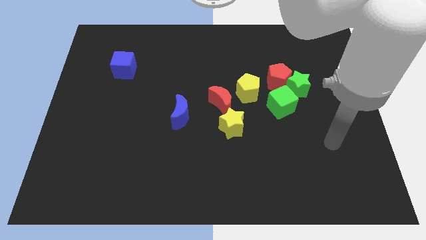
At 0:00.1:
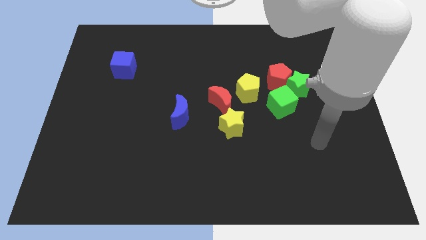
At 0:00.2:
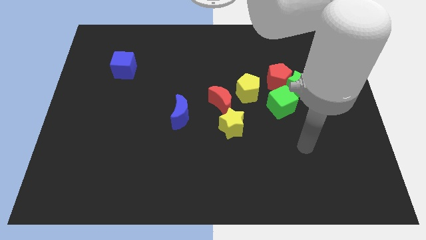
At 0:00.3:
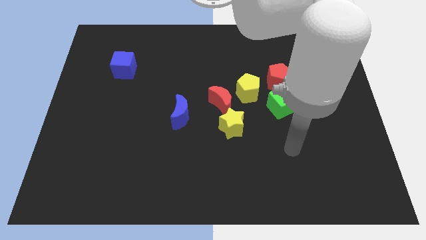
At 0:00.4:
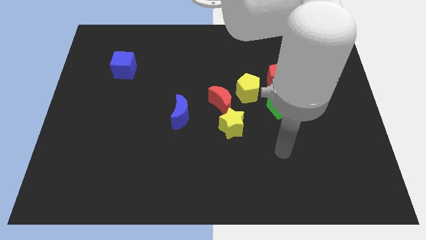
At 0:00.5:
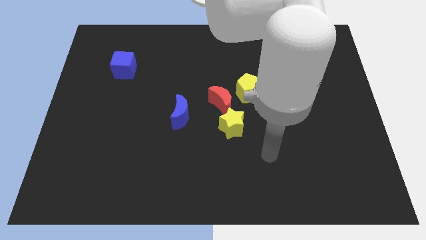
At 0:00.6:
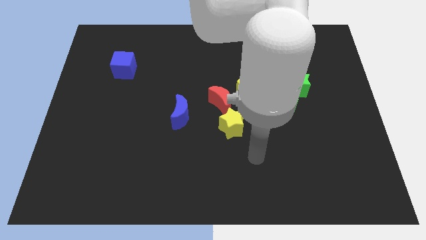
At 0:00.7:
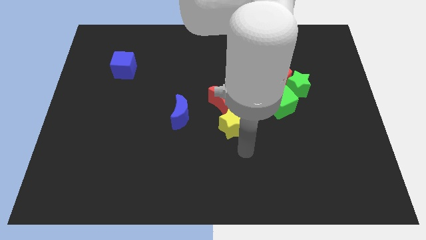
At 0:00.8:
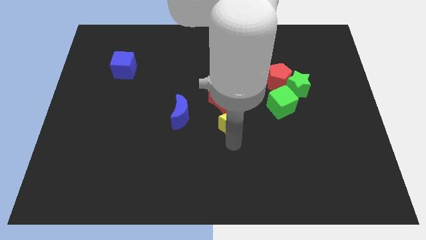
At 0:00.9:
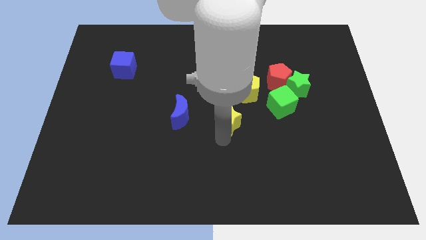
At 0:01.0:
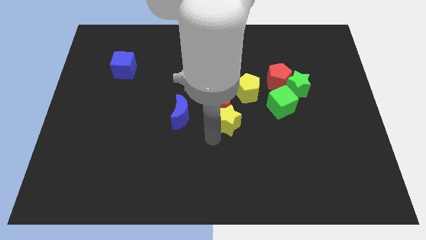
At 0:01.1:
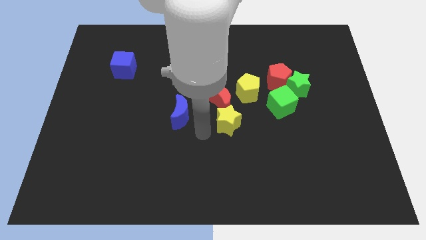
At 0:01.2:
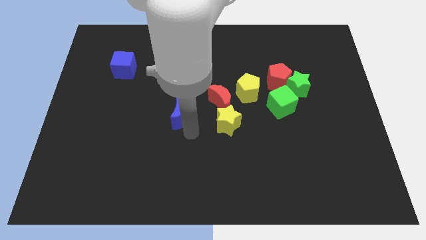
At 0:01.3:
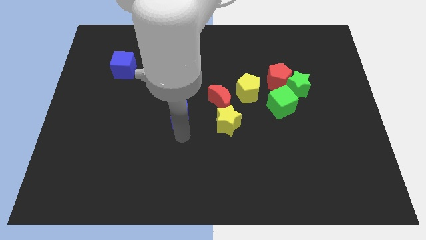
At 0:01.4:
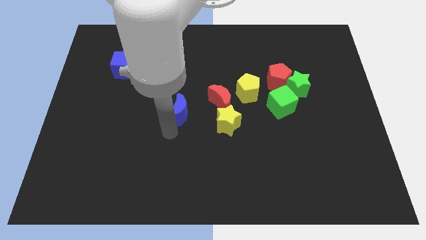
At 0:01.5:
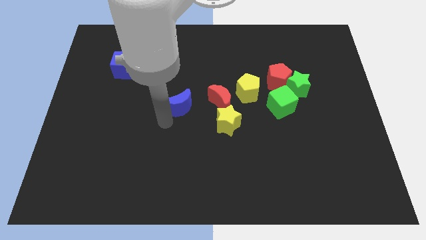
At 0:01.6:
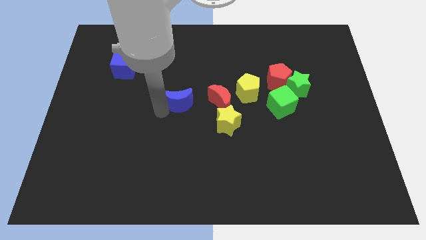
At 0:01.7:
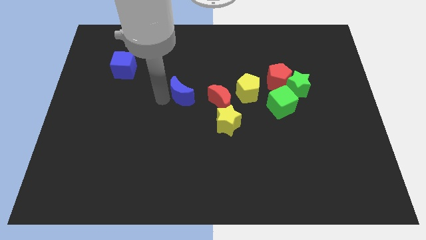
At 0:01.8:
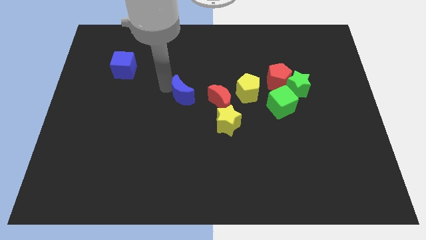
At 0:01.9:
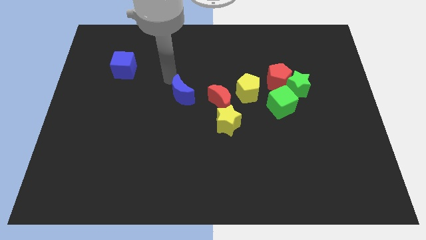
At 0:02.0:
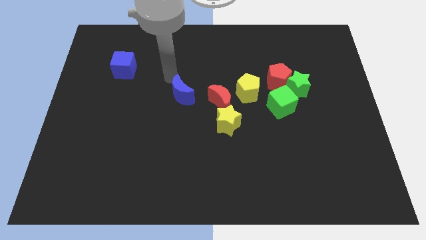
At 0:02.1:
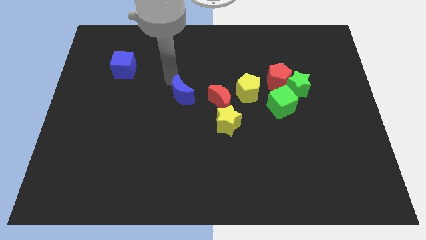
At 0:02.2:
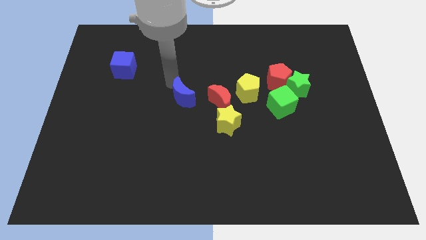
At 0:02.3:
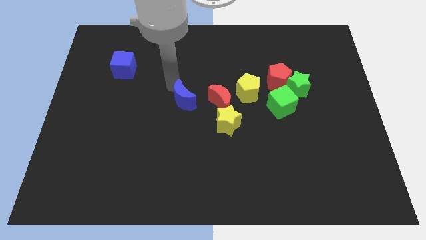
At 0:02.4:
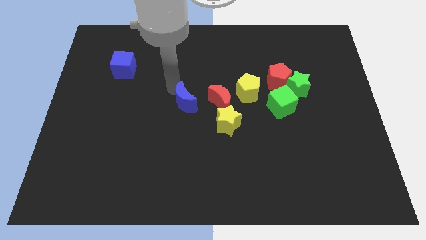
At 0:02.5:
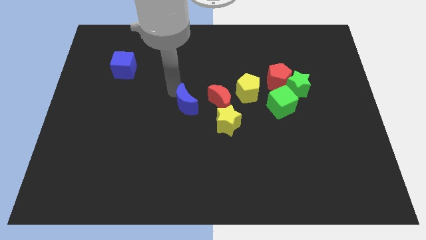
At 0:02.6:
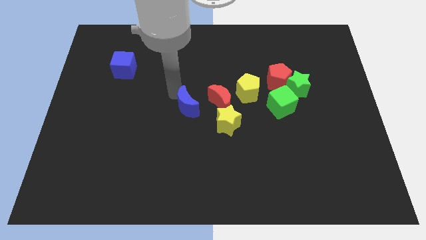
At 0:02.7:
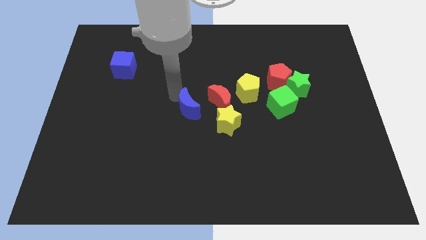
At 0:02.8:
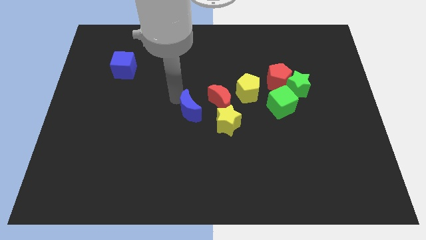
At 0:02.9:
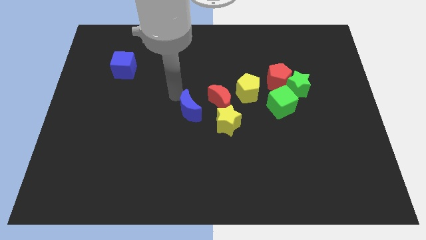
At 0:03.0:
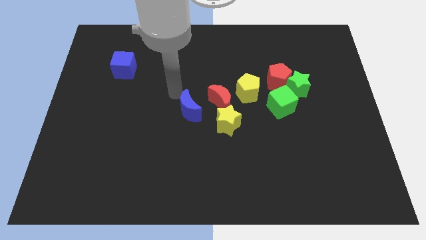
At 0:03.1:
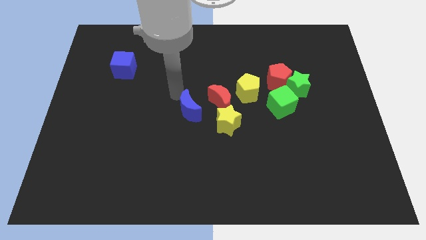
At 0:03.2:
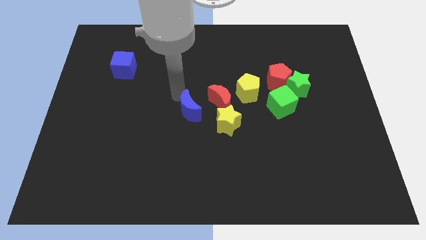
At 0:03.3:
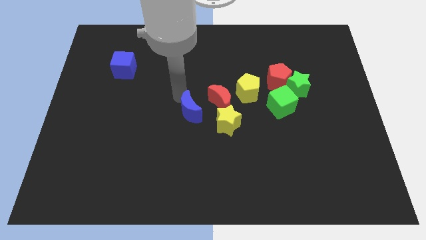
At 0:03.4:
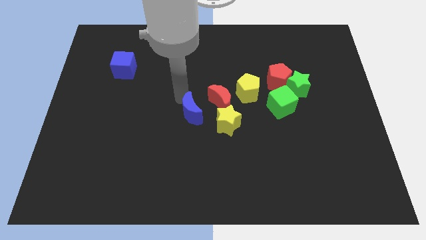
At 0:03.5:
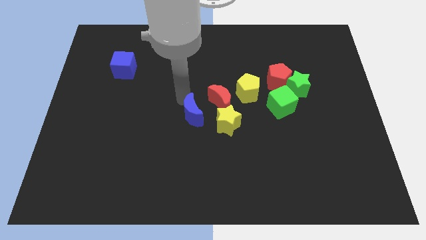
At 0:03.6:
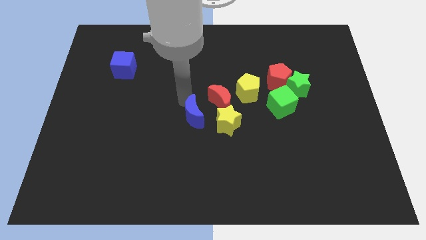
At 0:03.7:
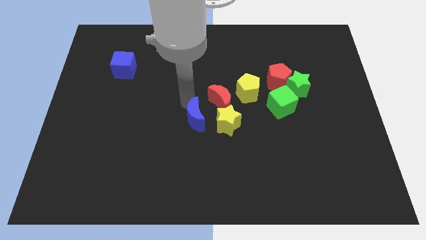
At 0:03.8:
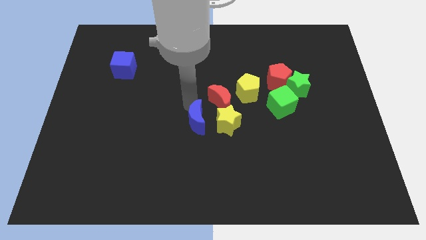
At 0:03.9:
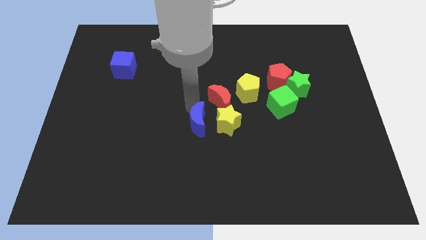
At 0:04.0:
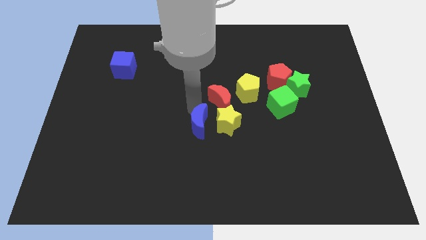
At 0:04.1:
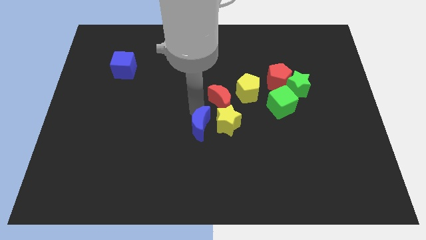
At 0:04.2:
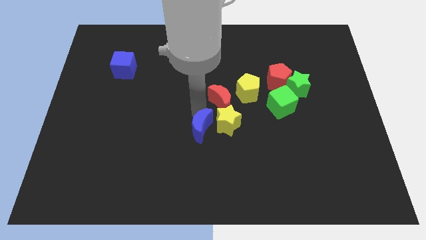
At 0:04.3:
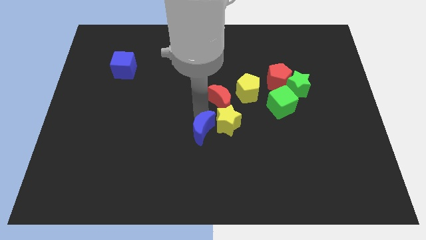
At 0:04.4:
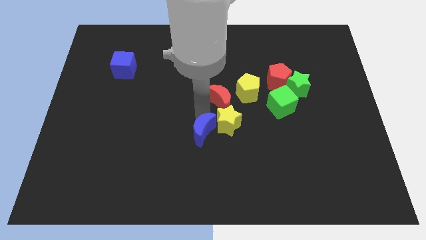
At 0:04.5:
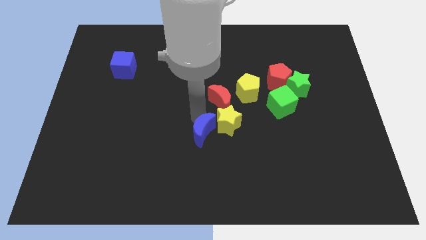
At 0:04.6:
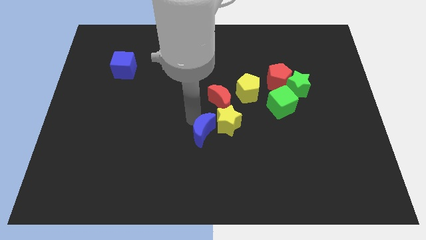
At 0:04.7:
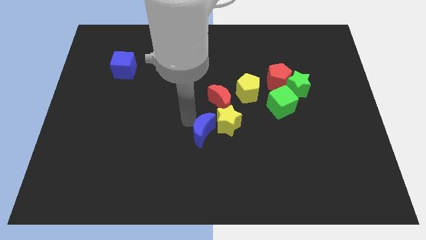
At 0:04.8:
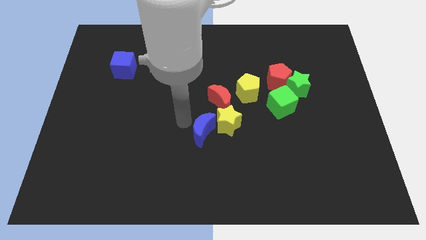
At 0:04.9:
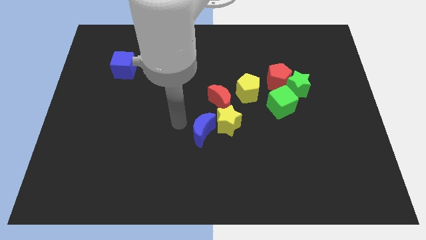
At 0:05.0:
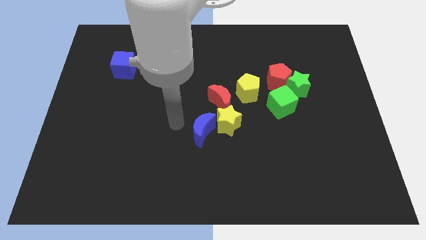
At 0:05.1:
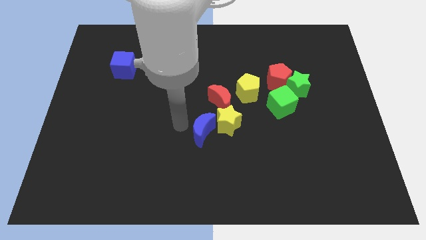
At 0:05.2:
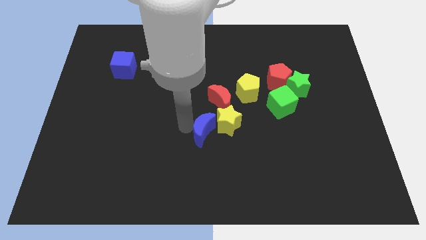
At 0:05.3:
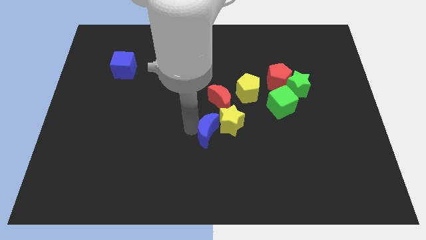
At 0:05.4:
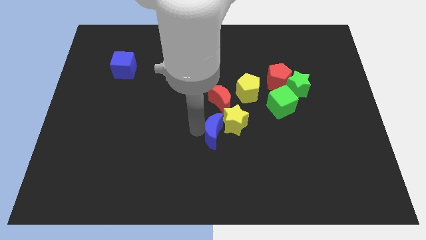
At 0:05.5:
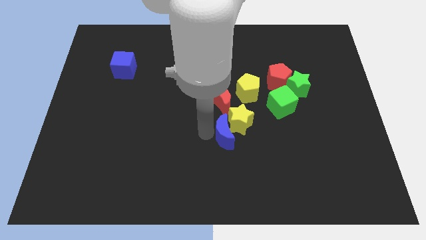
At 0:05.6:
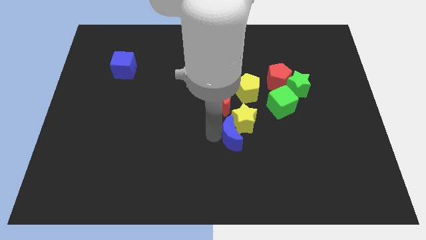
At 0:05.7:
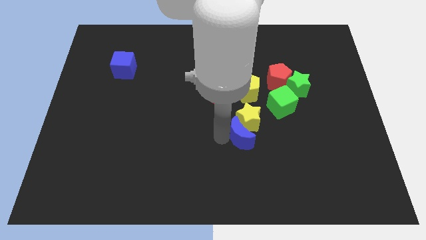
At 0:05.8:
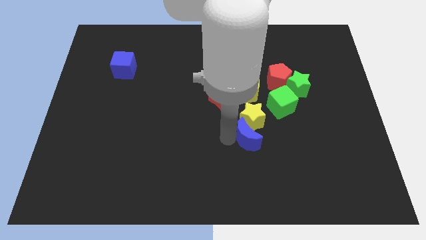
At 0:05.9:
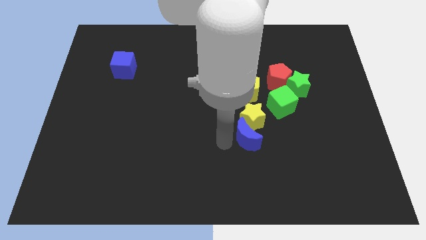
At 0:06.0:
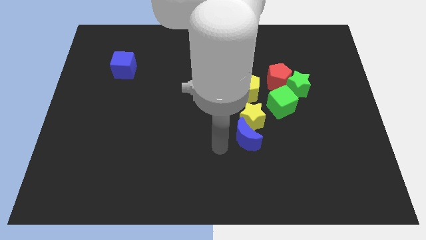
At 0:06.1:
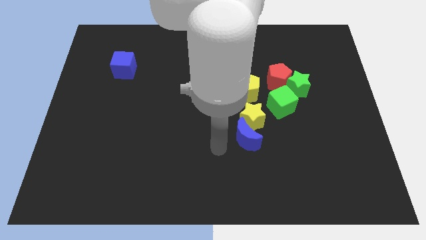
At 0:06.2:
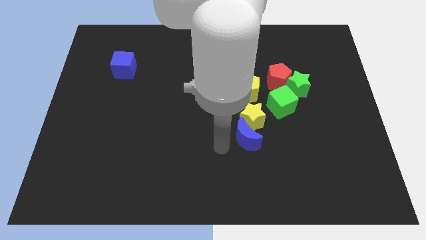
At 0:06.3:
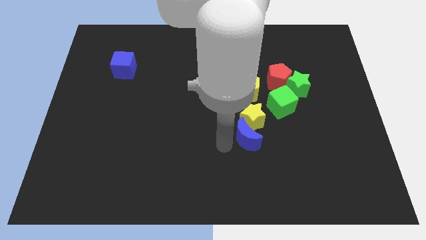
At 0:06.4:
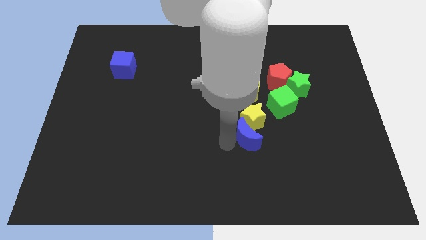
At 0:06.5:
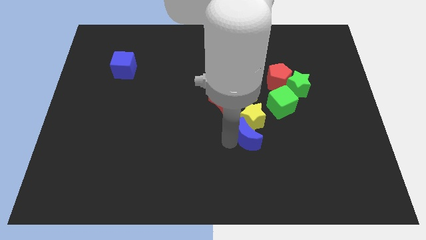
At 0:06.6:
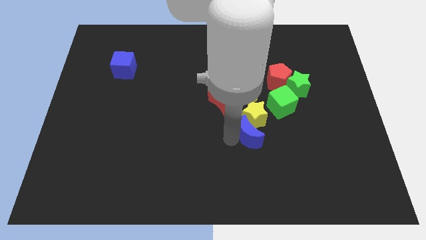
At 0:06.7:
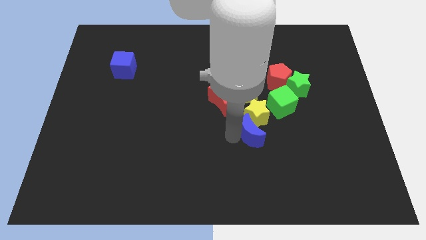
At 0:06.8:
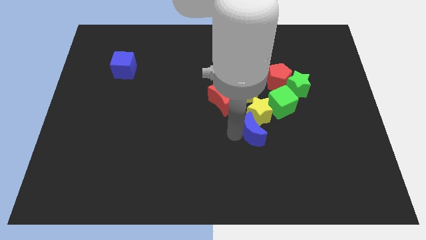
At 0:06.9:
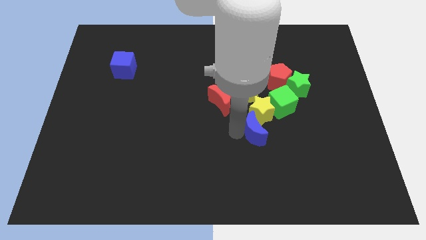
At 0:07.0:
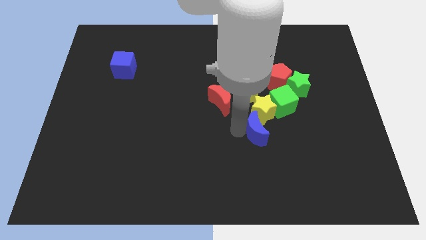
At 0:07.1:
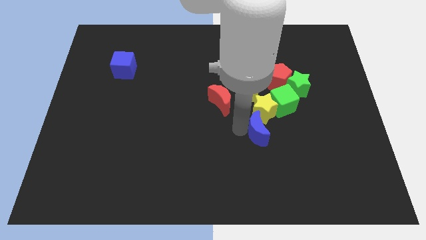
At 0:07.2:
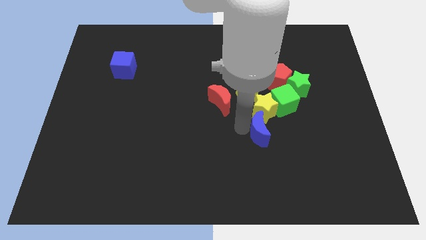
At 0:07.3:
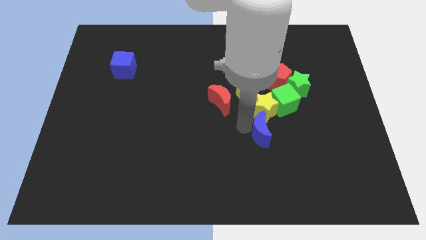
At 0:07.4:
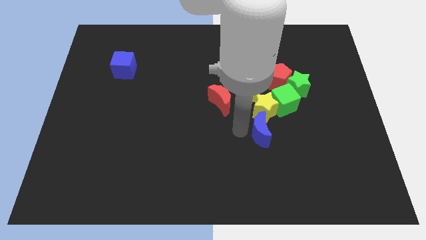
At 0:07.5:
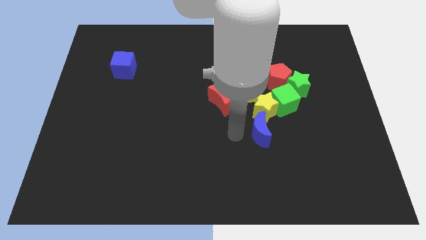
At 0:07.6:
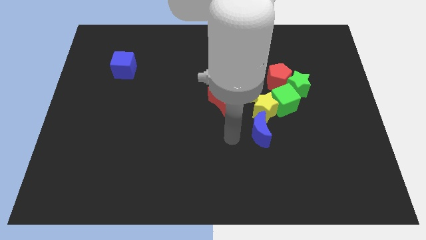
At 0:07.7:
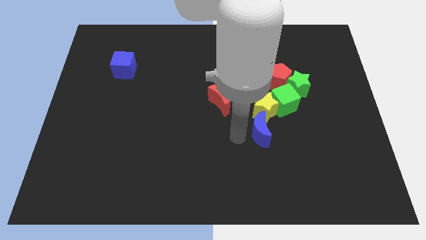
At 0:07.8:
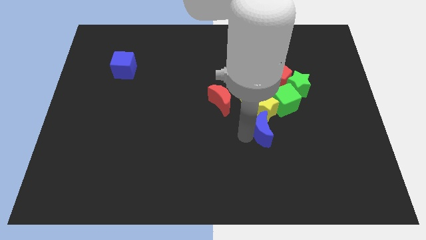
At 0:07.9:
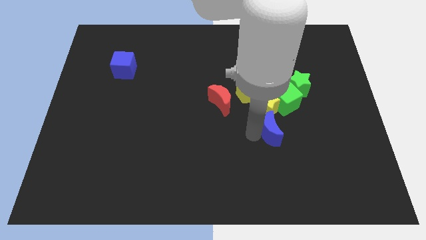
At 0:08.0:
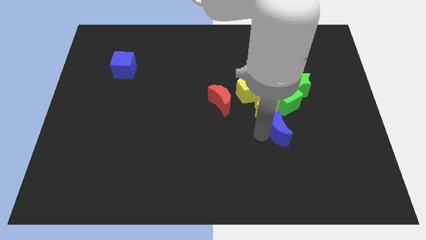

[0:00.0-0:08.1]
move the blue moon right

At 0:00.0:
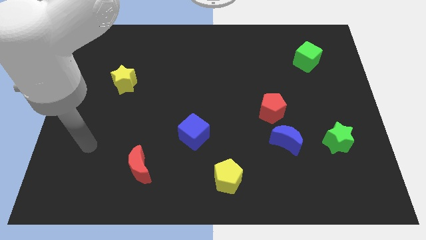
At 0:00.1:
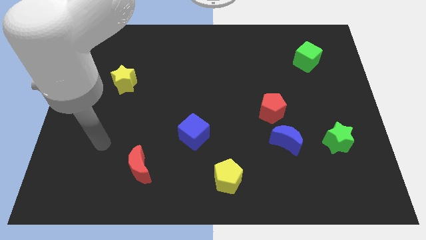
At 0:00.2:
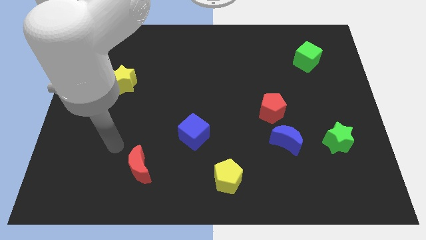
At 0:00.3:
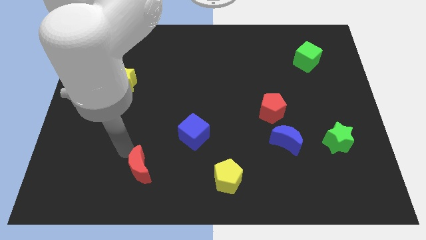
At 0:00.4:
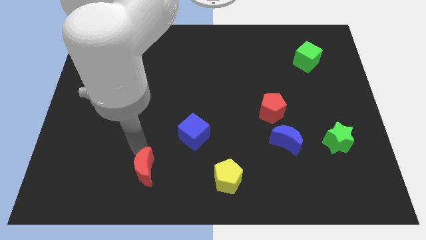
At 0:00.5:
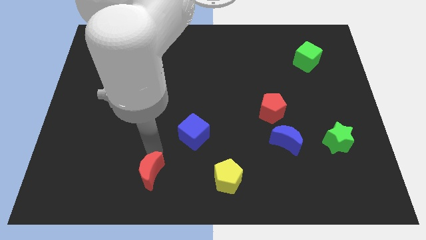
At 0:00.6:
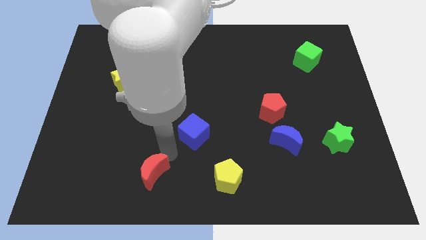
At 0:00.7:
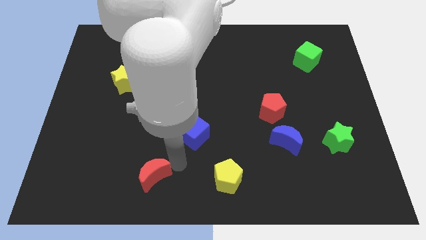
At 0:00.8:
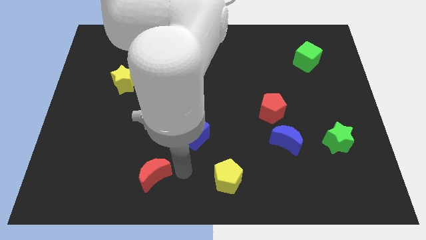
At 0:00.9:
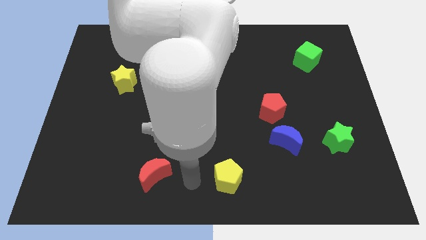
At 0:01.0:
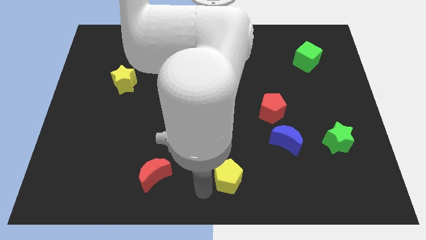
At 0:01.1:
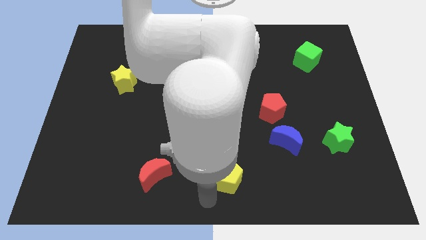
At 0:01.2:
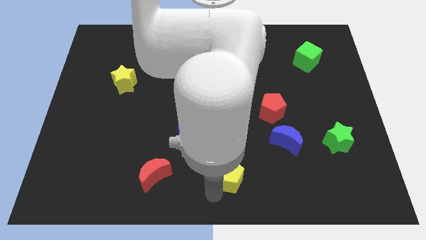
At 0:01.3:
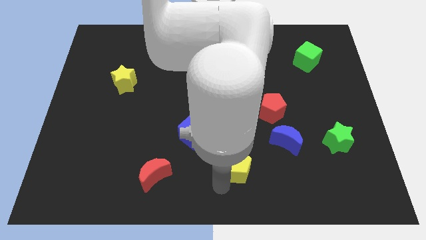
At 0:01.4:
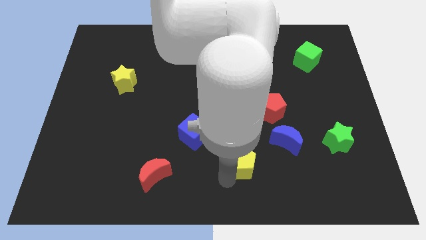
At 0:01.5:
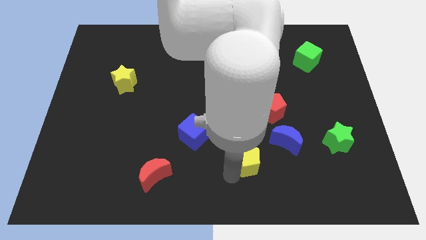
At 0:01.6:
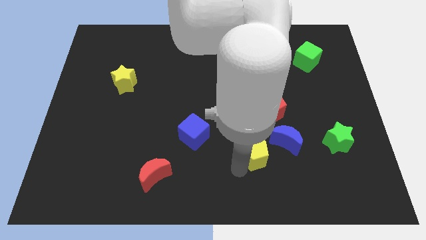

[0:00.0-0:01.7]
slightly slide the yellow pentagon up and right
